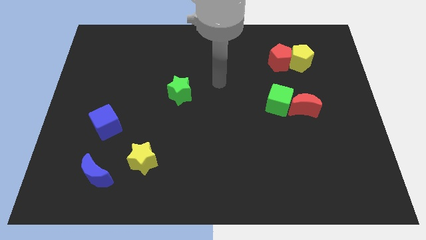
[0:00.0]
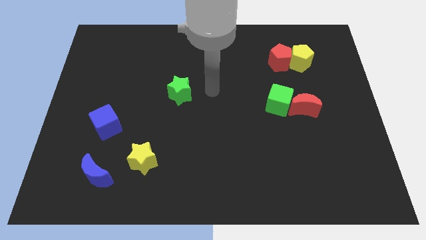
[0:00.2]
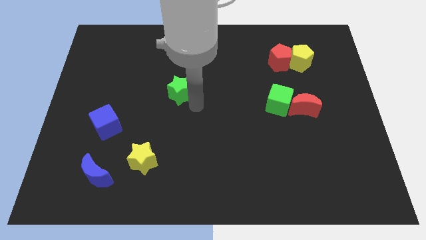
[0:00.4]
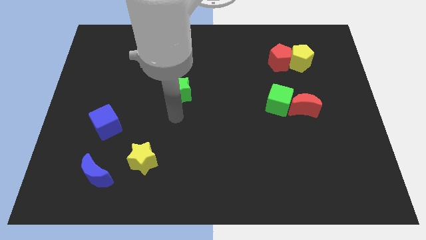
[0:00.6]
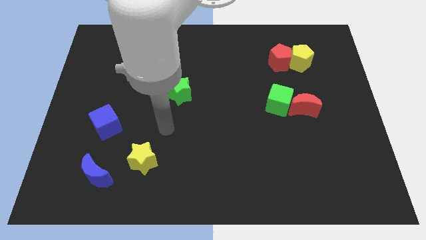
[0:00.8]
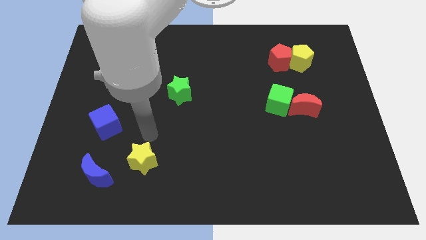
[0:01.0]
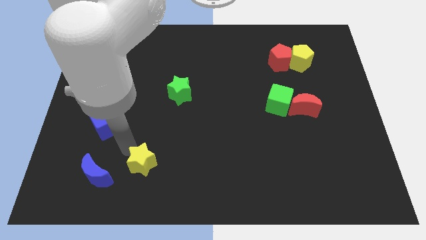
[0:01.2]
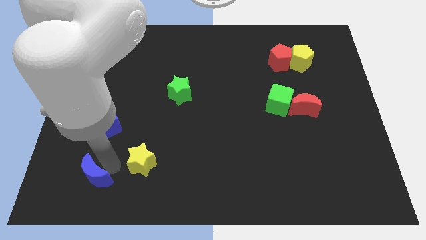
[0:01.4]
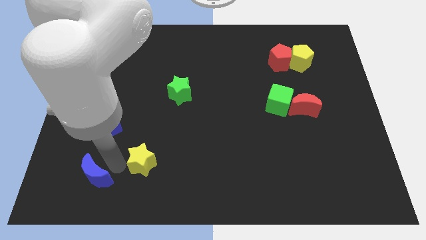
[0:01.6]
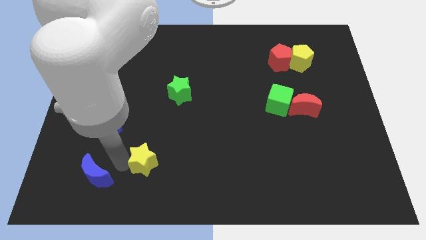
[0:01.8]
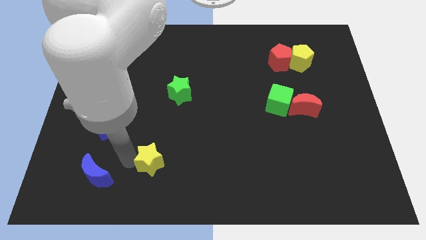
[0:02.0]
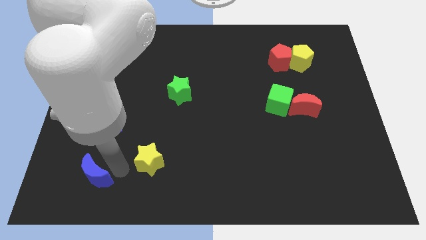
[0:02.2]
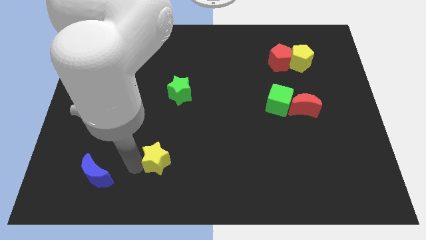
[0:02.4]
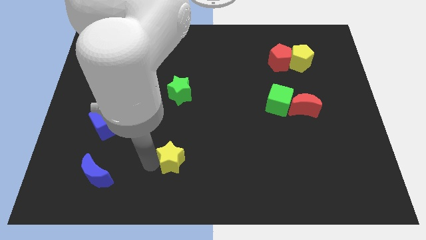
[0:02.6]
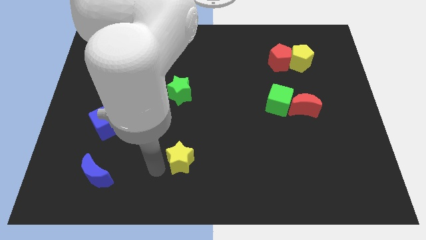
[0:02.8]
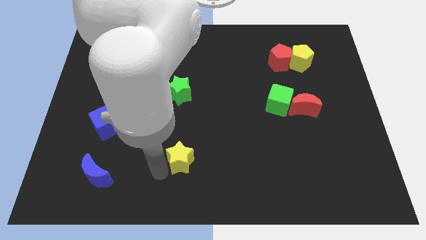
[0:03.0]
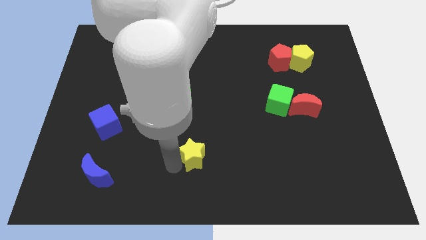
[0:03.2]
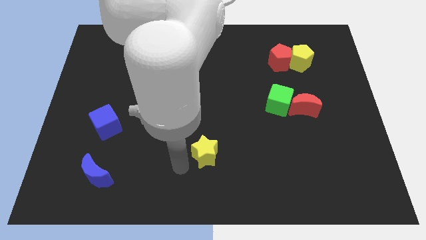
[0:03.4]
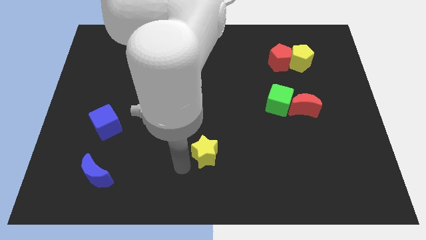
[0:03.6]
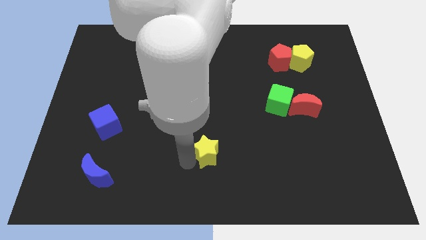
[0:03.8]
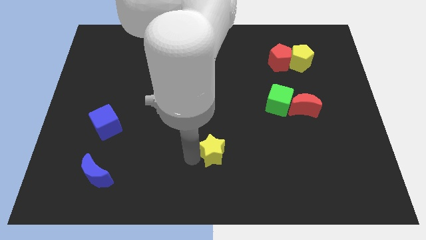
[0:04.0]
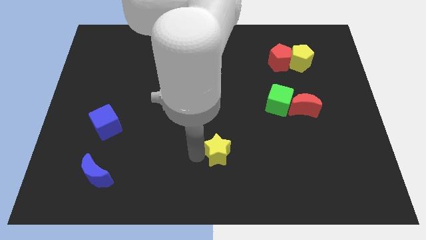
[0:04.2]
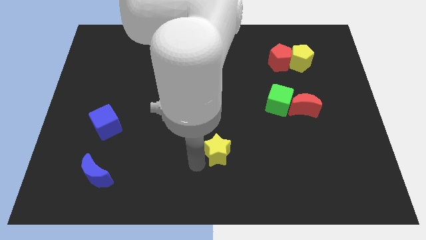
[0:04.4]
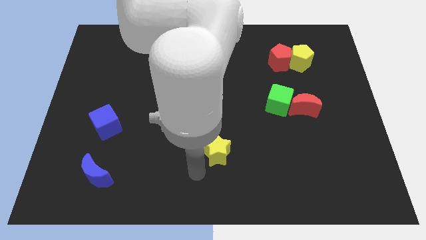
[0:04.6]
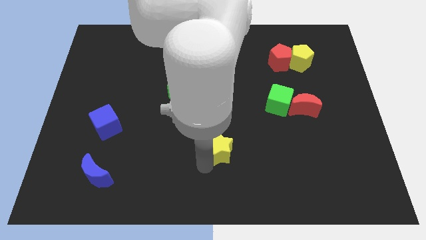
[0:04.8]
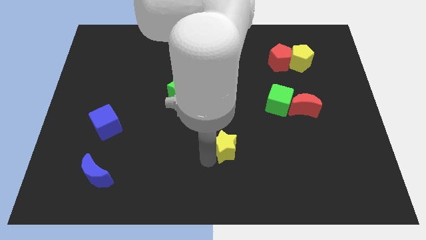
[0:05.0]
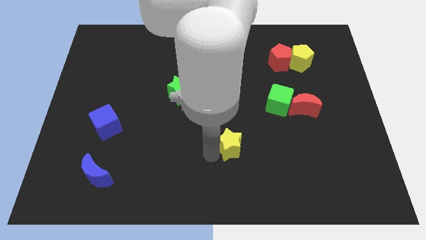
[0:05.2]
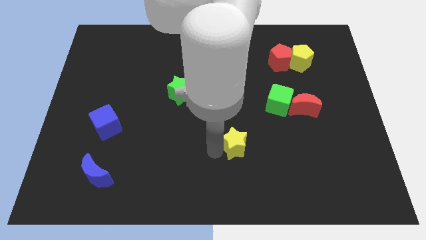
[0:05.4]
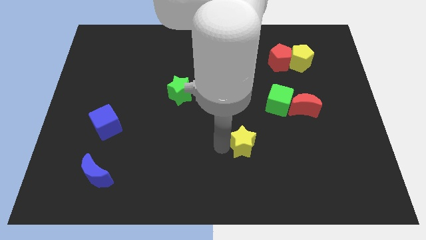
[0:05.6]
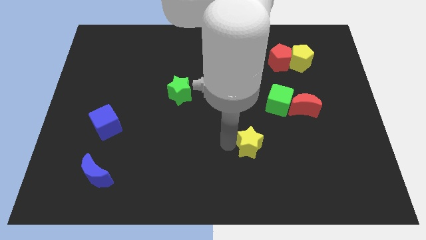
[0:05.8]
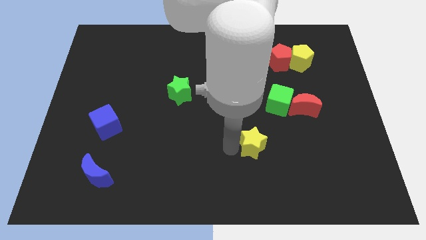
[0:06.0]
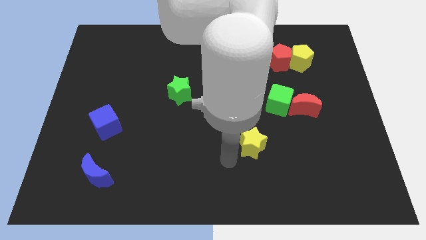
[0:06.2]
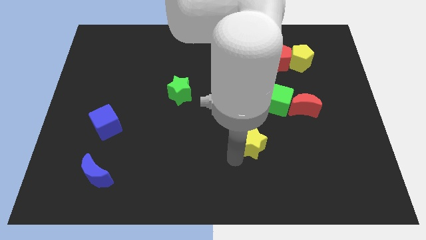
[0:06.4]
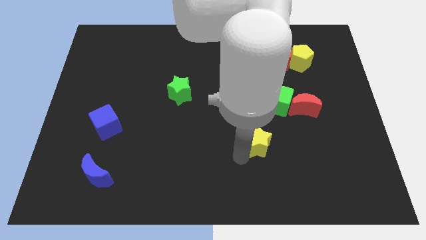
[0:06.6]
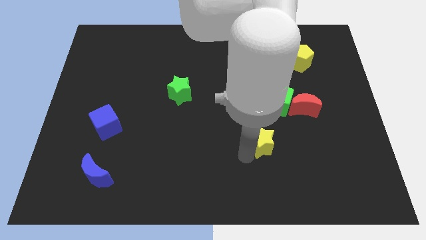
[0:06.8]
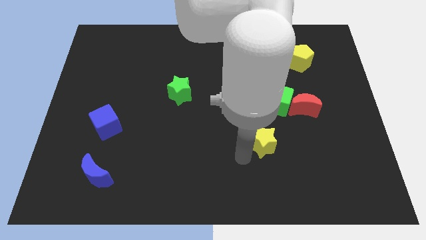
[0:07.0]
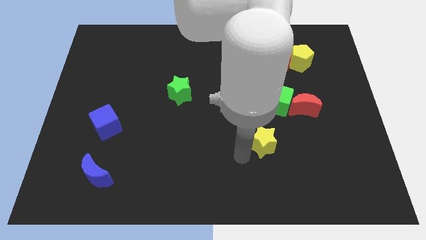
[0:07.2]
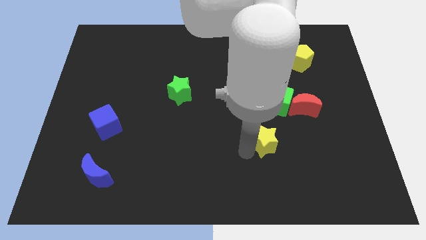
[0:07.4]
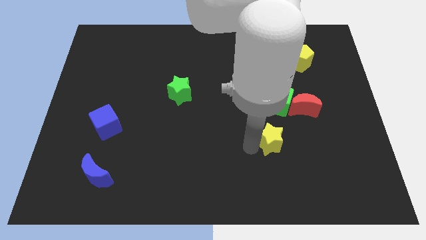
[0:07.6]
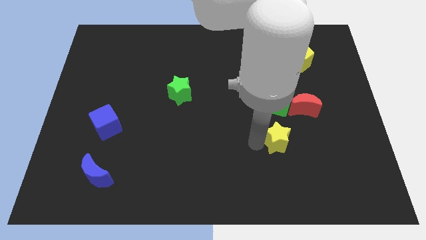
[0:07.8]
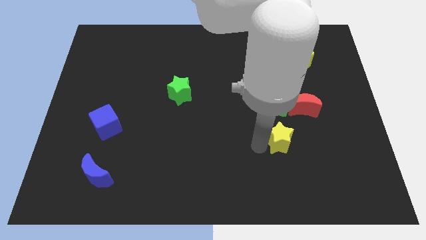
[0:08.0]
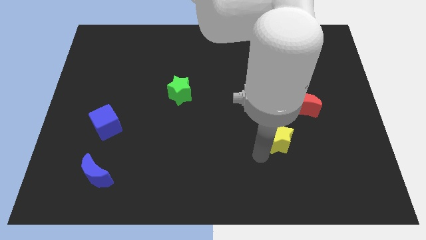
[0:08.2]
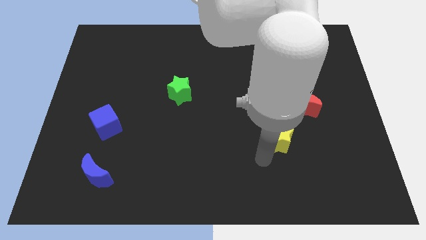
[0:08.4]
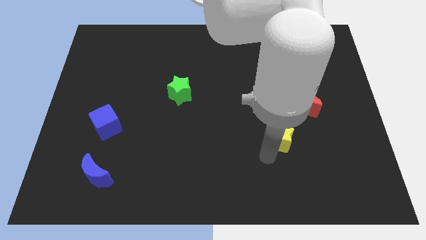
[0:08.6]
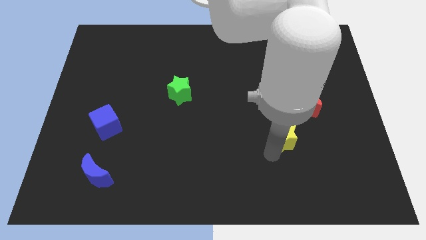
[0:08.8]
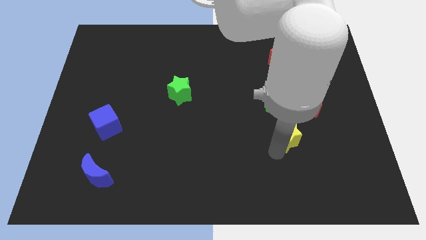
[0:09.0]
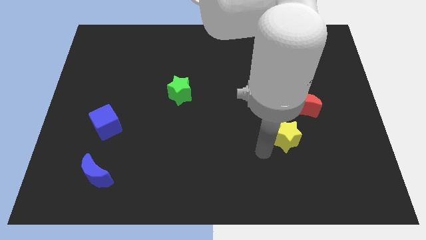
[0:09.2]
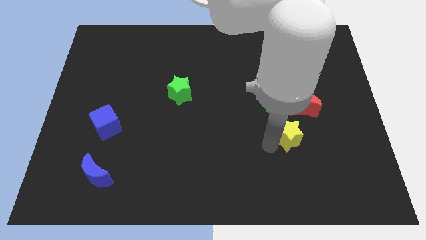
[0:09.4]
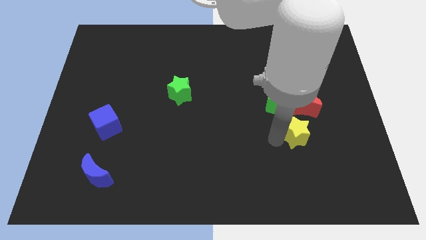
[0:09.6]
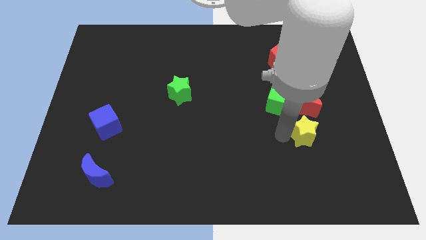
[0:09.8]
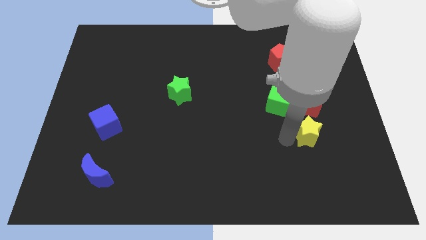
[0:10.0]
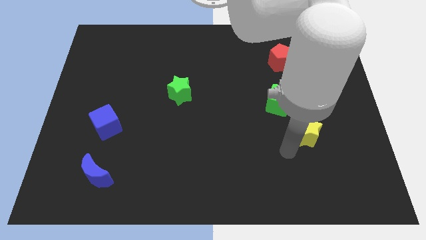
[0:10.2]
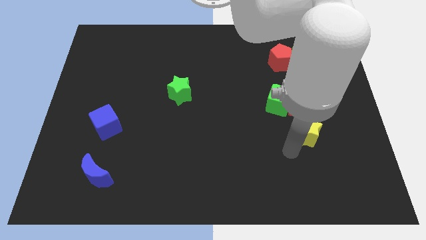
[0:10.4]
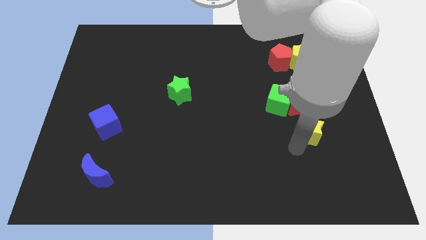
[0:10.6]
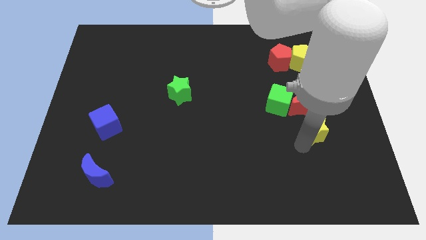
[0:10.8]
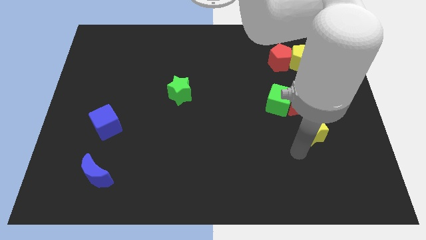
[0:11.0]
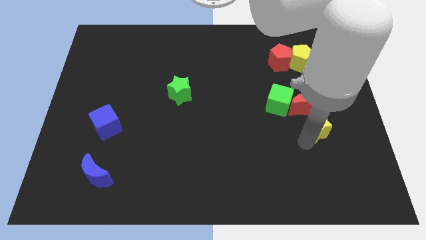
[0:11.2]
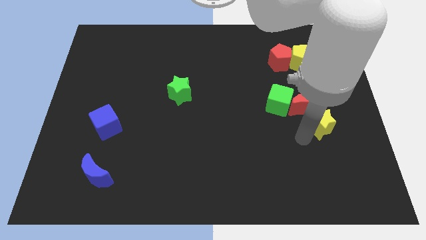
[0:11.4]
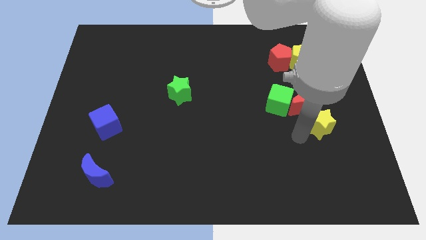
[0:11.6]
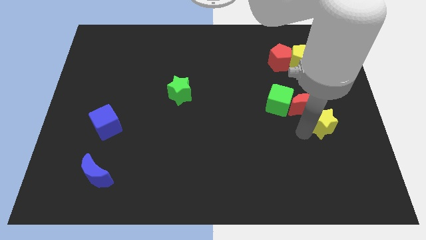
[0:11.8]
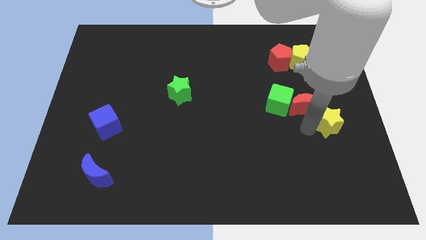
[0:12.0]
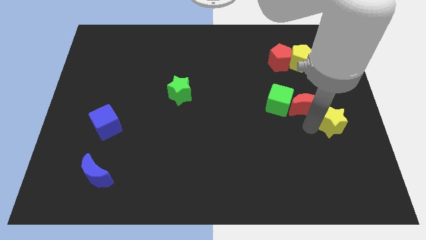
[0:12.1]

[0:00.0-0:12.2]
move the yellow star to the center right

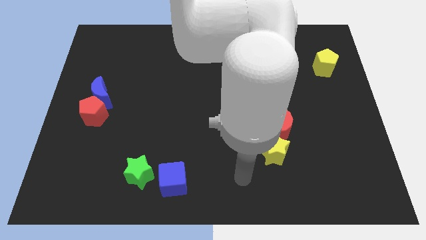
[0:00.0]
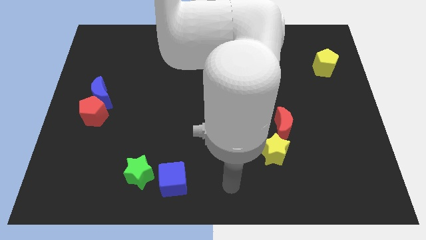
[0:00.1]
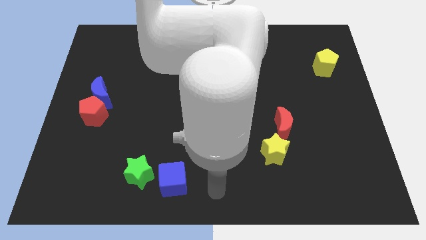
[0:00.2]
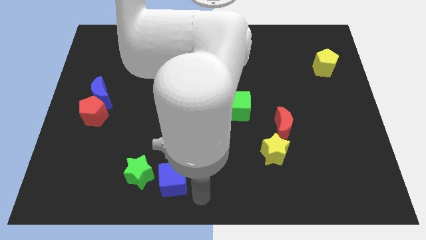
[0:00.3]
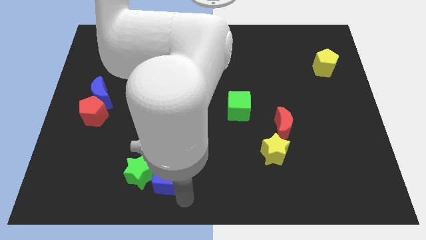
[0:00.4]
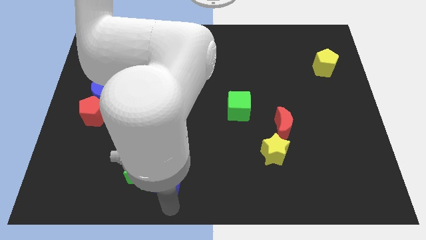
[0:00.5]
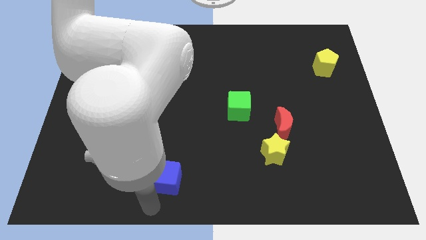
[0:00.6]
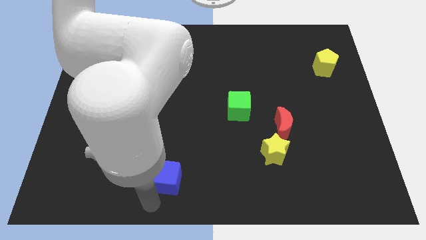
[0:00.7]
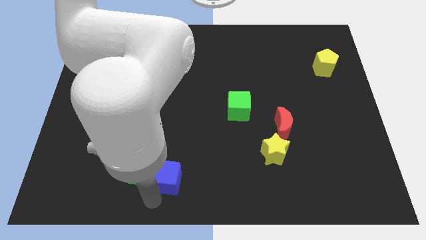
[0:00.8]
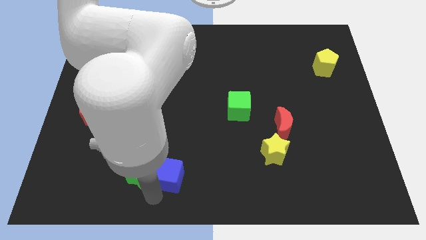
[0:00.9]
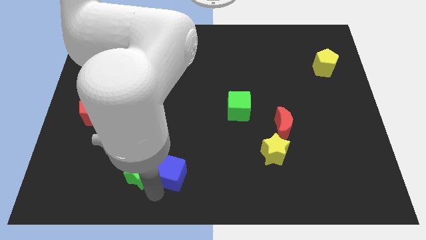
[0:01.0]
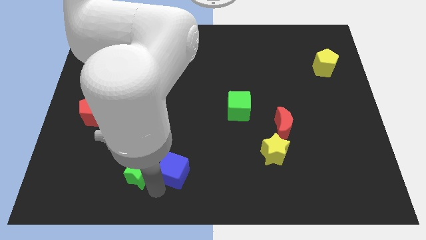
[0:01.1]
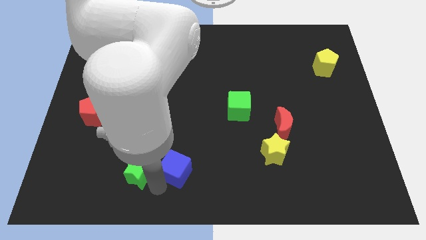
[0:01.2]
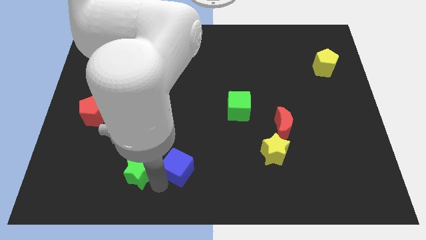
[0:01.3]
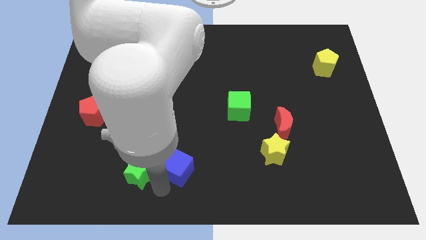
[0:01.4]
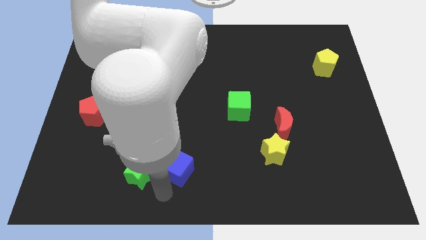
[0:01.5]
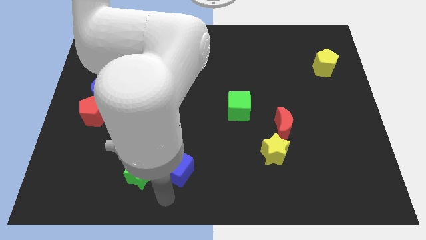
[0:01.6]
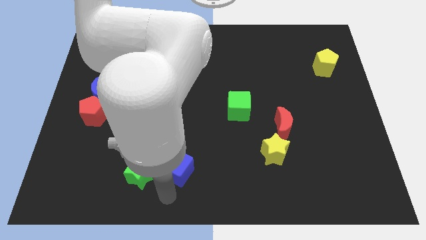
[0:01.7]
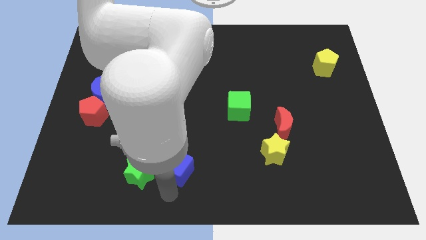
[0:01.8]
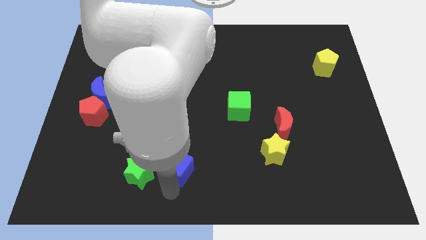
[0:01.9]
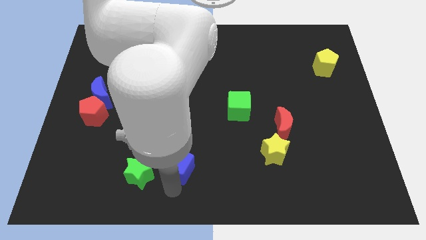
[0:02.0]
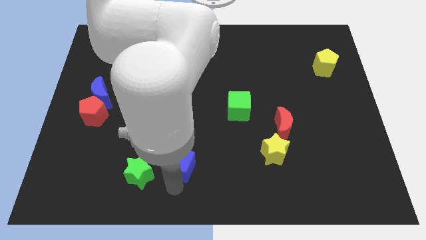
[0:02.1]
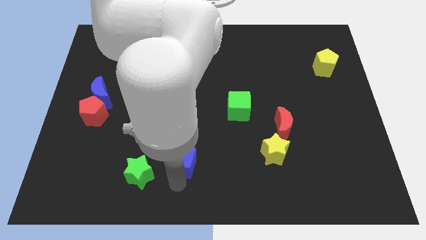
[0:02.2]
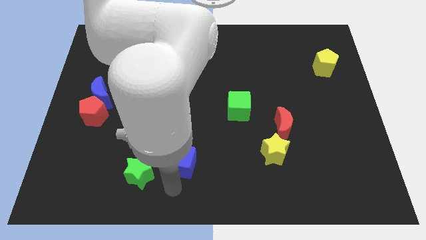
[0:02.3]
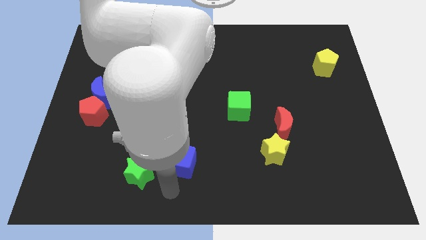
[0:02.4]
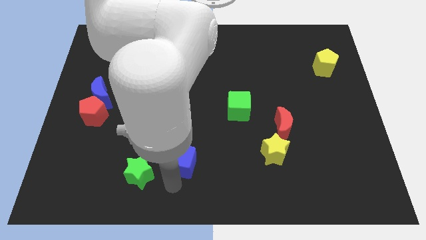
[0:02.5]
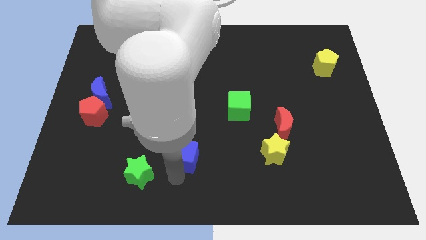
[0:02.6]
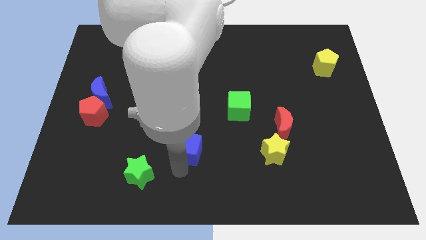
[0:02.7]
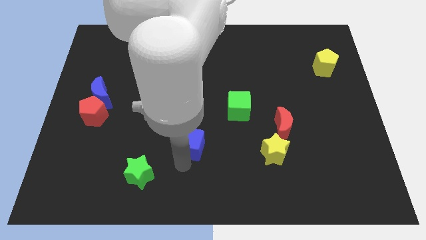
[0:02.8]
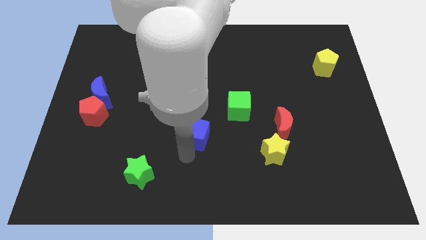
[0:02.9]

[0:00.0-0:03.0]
push the blue cube to the middle of the board
